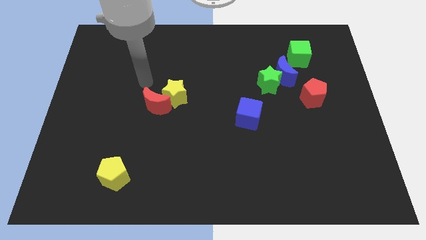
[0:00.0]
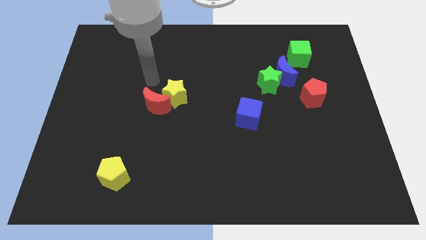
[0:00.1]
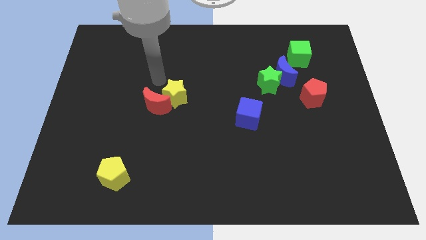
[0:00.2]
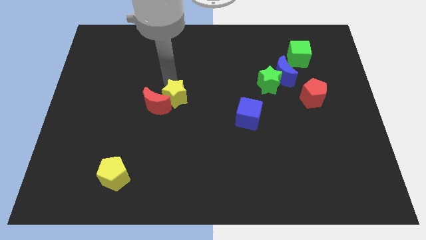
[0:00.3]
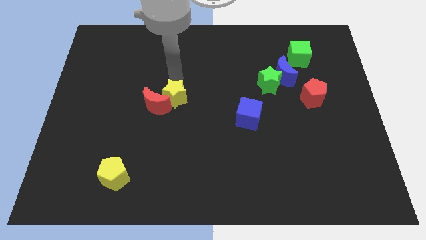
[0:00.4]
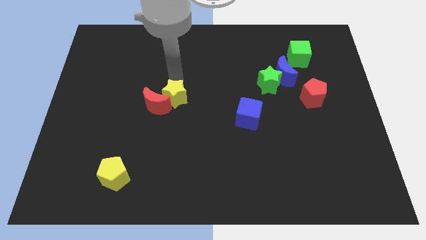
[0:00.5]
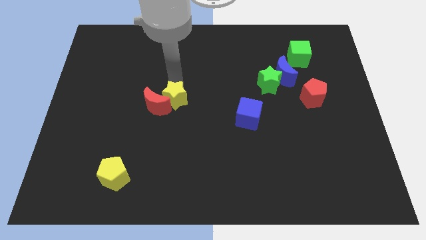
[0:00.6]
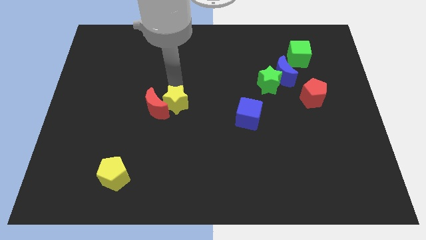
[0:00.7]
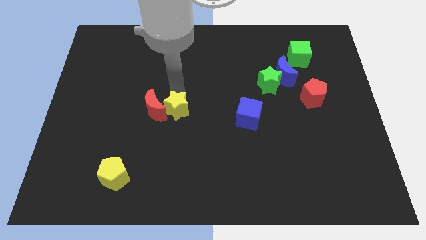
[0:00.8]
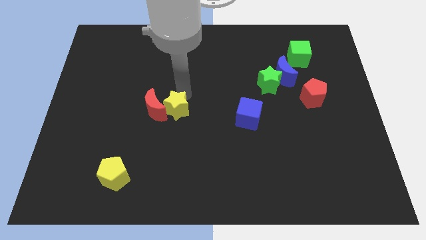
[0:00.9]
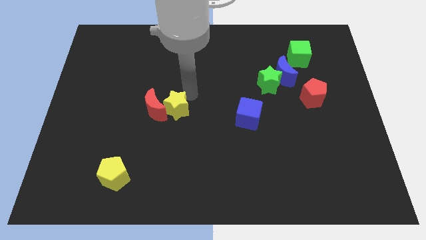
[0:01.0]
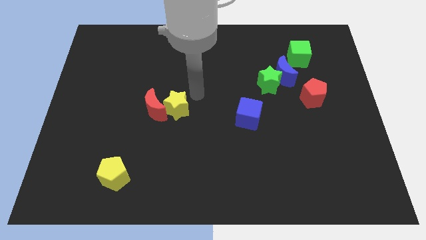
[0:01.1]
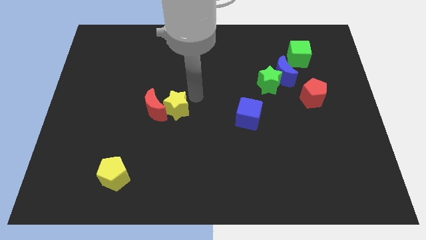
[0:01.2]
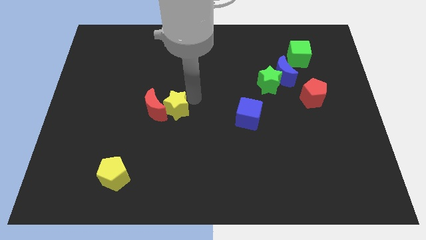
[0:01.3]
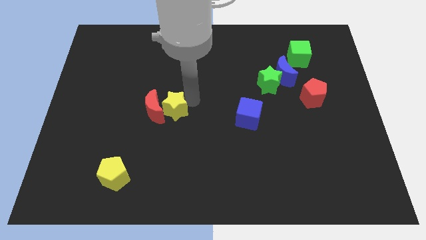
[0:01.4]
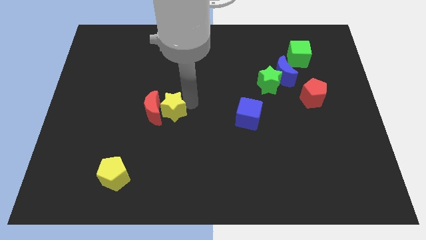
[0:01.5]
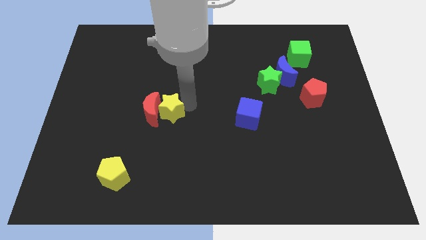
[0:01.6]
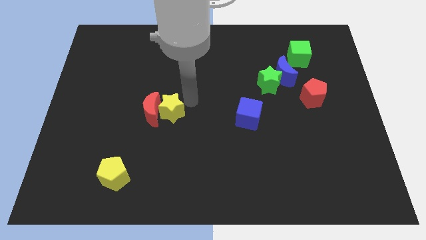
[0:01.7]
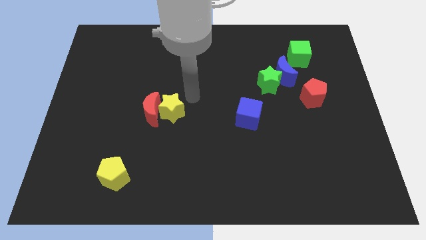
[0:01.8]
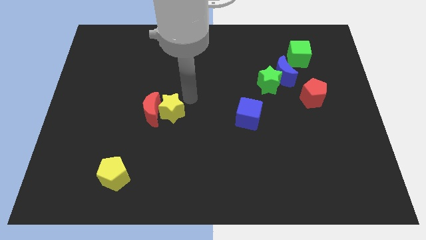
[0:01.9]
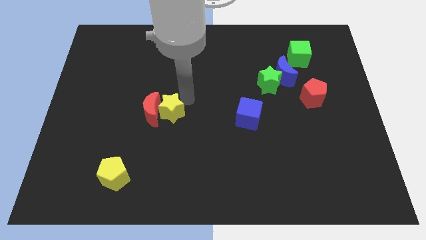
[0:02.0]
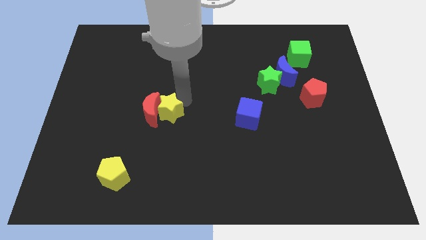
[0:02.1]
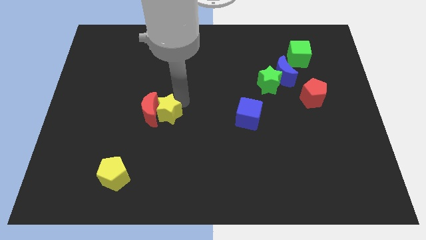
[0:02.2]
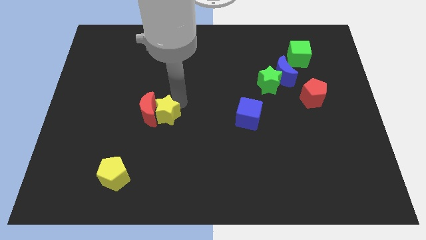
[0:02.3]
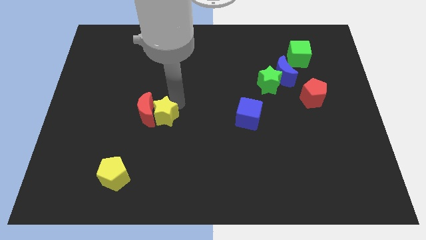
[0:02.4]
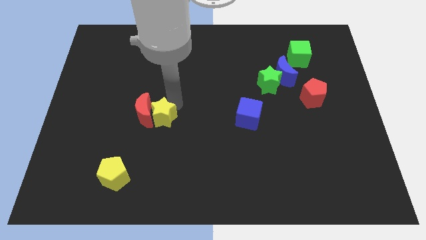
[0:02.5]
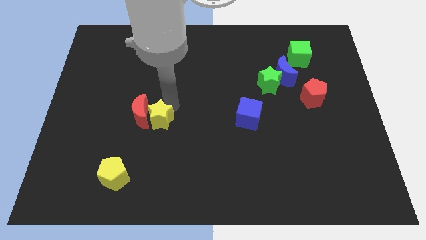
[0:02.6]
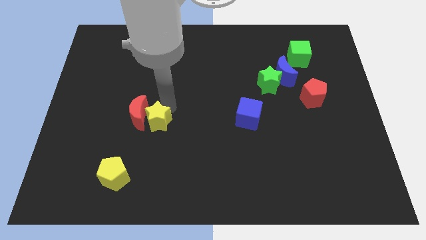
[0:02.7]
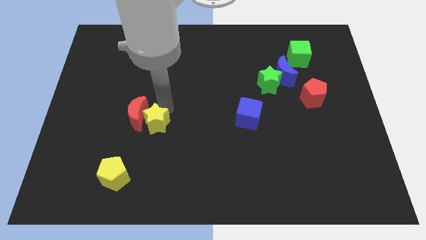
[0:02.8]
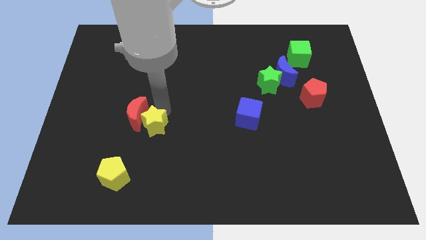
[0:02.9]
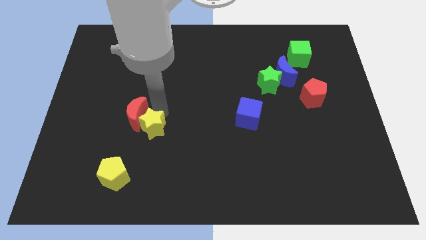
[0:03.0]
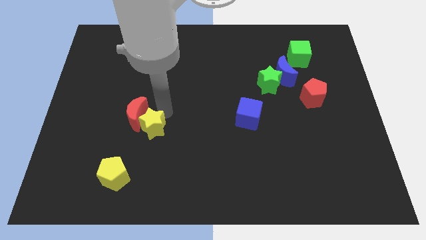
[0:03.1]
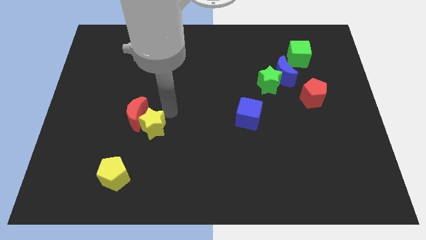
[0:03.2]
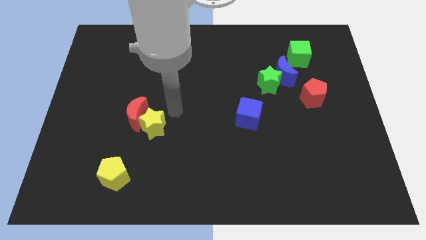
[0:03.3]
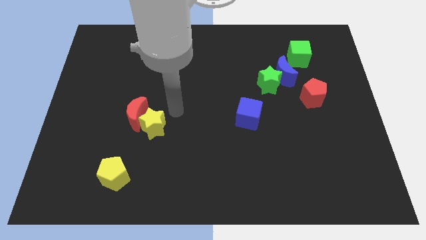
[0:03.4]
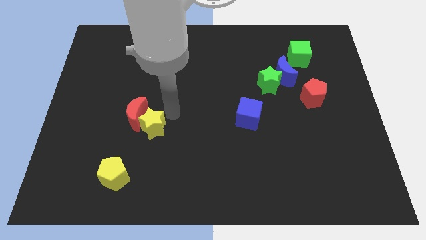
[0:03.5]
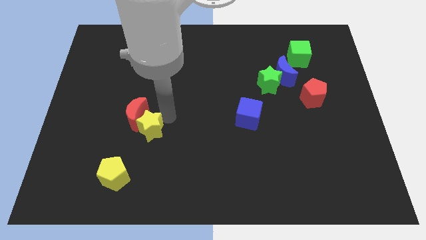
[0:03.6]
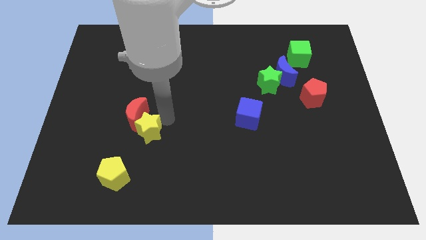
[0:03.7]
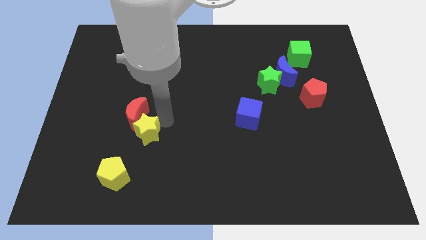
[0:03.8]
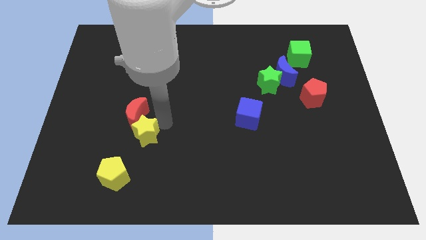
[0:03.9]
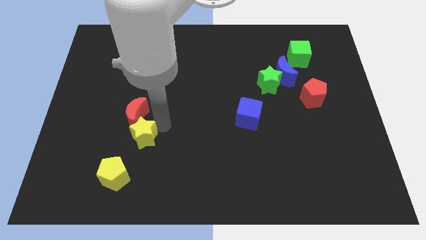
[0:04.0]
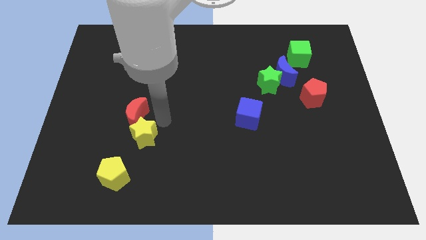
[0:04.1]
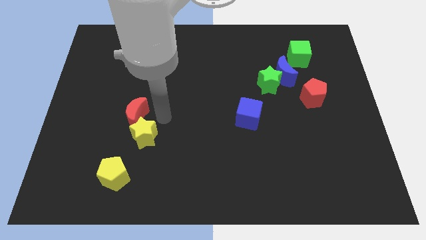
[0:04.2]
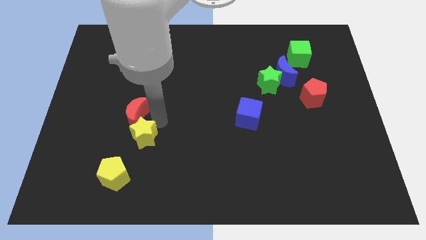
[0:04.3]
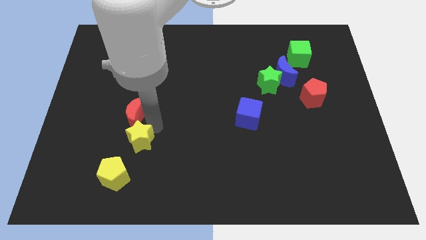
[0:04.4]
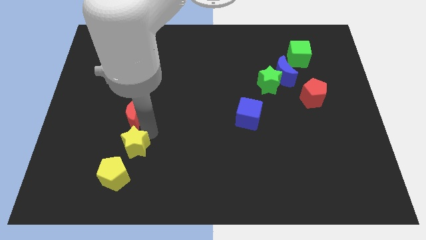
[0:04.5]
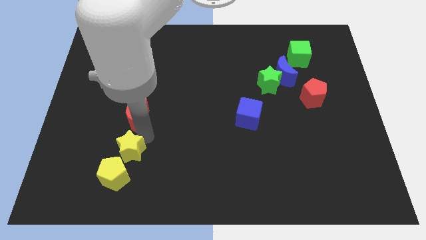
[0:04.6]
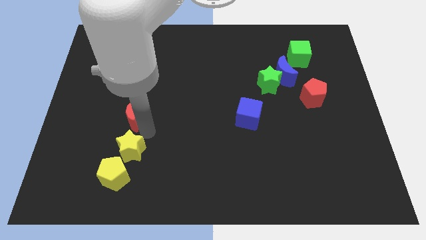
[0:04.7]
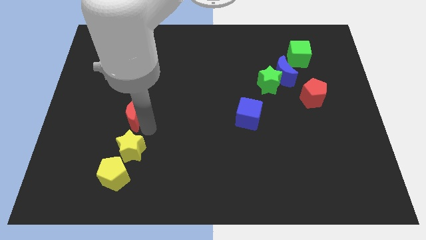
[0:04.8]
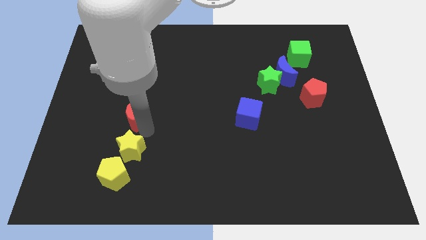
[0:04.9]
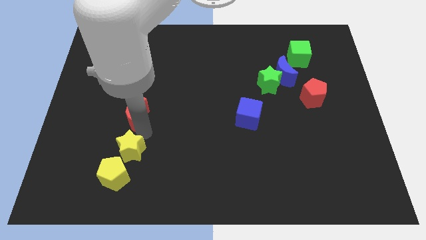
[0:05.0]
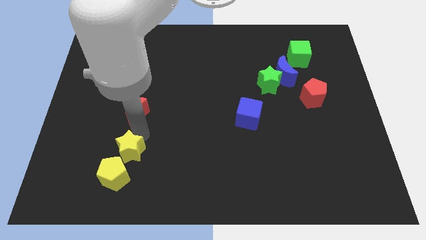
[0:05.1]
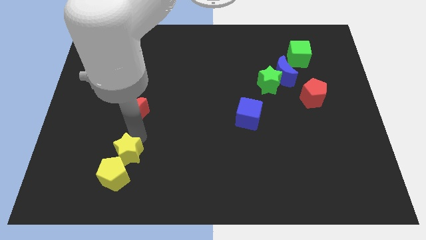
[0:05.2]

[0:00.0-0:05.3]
move the yellow star close to the yellow pentagon

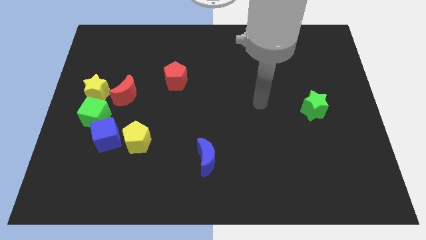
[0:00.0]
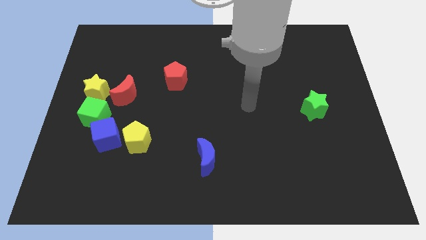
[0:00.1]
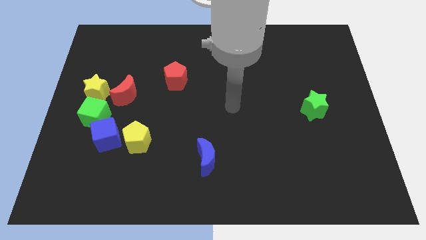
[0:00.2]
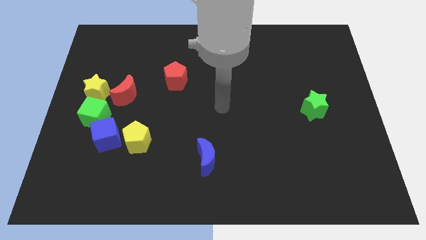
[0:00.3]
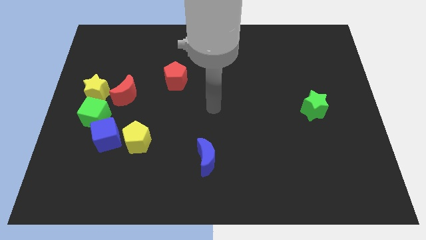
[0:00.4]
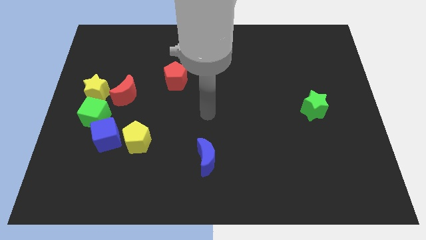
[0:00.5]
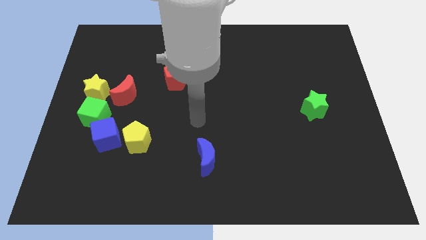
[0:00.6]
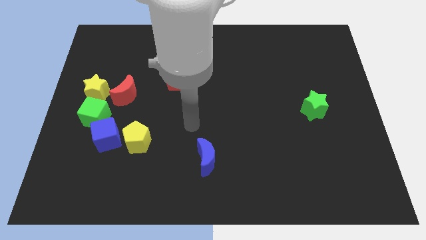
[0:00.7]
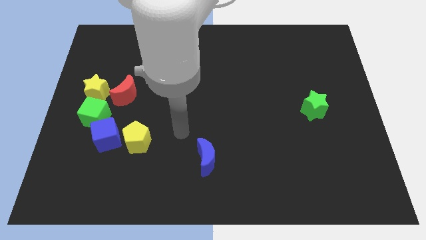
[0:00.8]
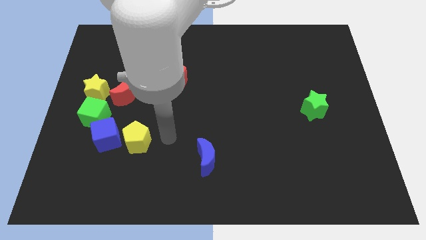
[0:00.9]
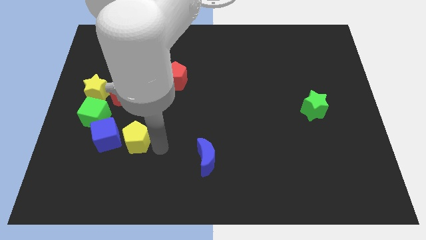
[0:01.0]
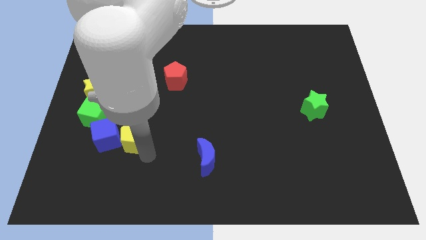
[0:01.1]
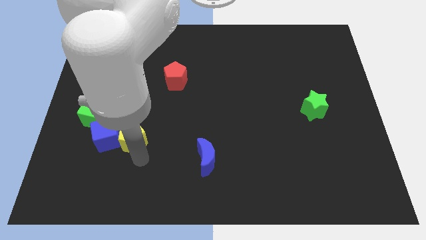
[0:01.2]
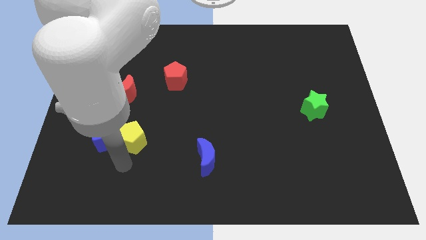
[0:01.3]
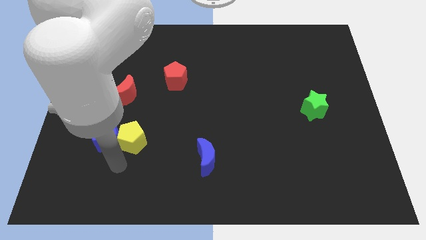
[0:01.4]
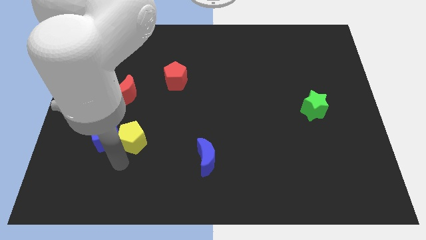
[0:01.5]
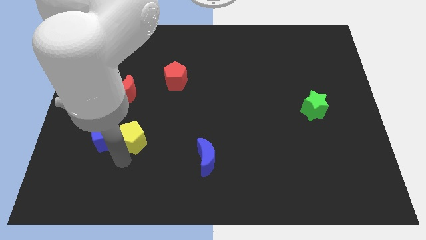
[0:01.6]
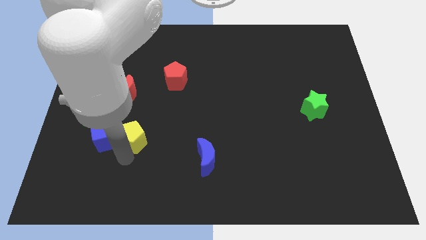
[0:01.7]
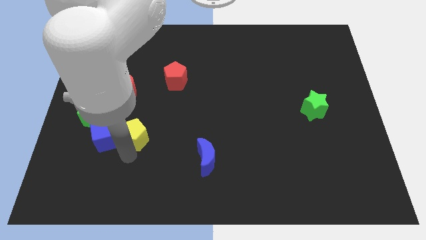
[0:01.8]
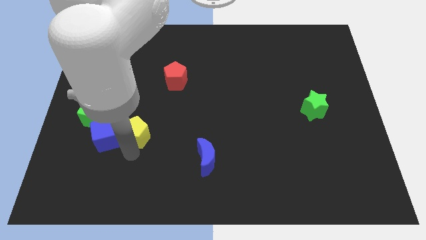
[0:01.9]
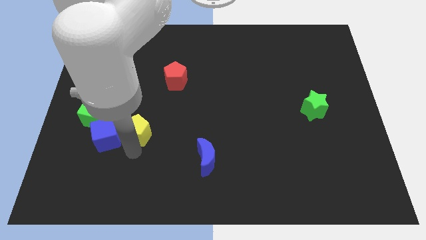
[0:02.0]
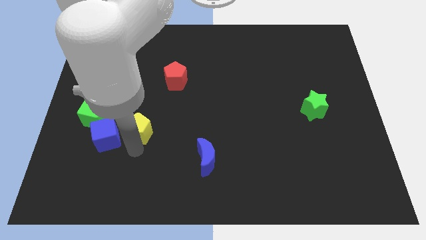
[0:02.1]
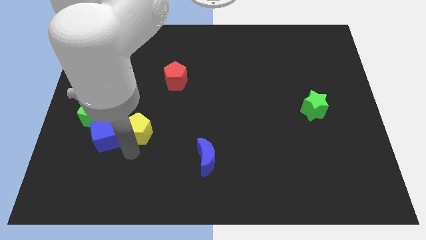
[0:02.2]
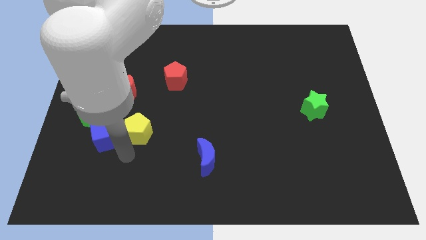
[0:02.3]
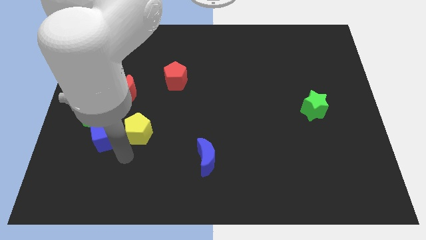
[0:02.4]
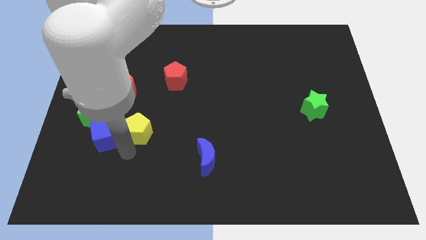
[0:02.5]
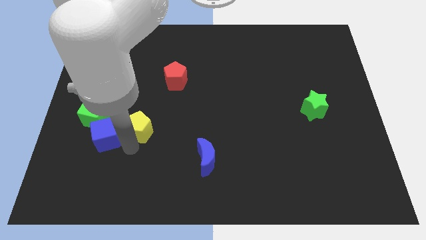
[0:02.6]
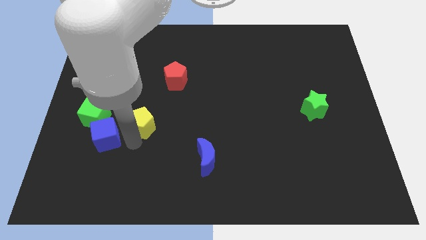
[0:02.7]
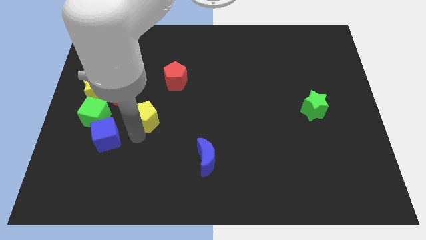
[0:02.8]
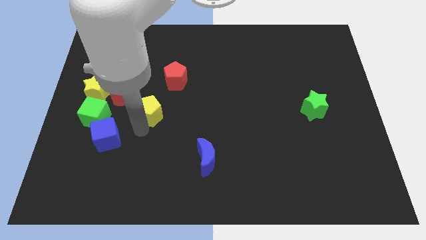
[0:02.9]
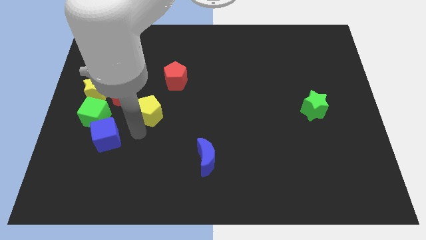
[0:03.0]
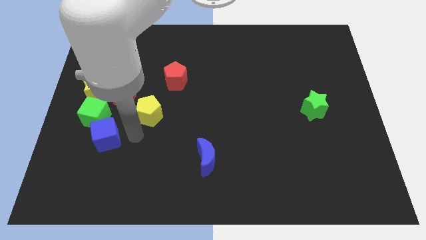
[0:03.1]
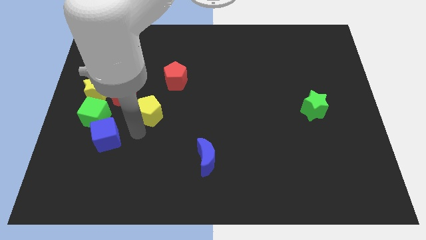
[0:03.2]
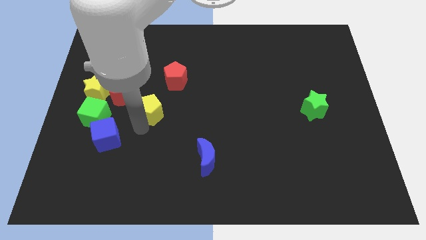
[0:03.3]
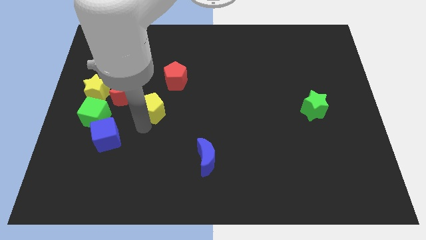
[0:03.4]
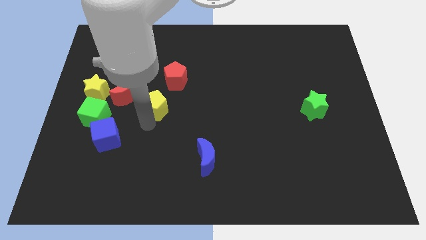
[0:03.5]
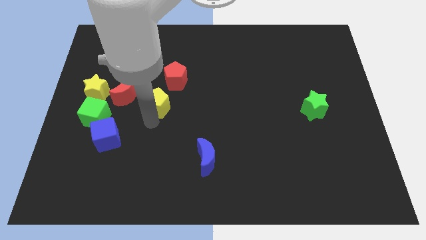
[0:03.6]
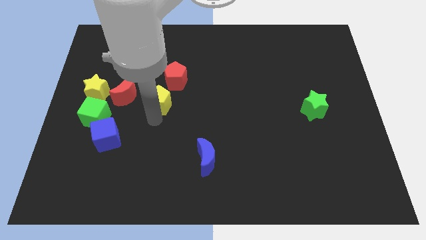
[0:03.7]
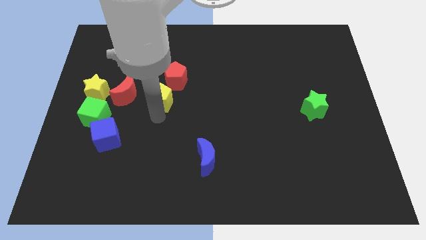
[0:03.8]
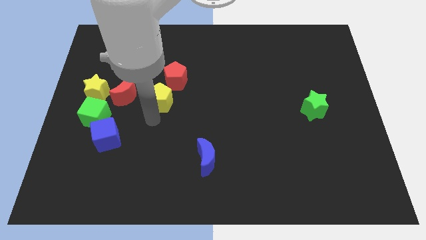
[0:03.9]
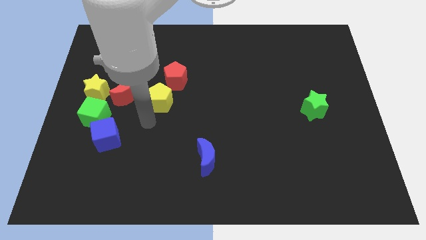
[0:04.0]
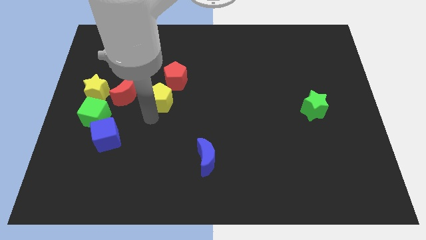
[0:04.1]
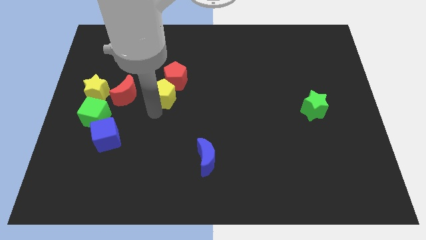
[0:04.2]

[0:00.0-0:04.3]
slide the yellow pentagon towards the red pentagon
